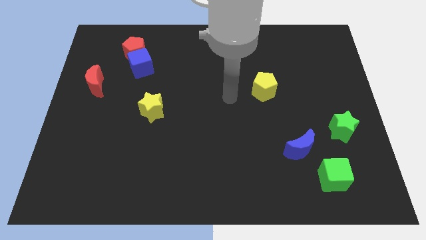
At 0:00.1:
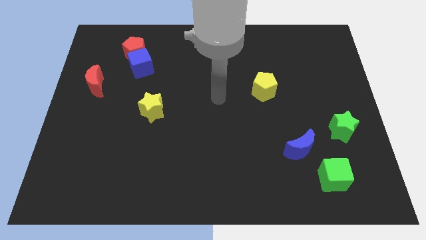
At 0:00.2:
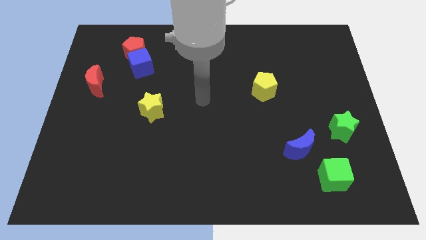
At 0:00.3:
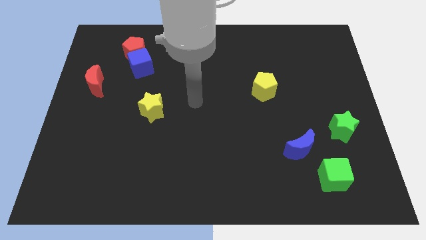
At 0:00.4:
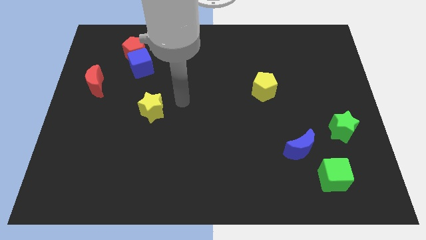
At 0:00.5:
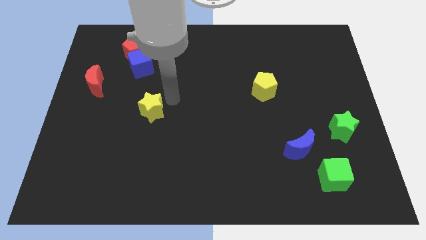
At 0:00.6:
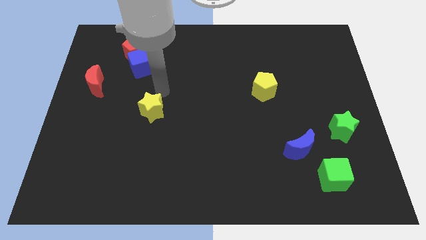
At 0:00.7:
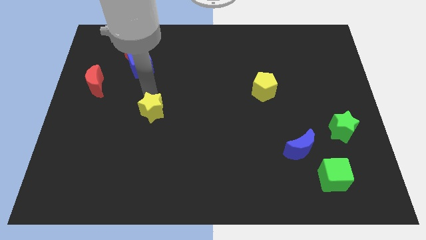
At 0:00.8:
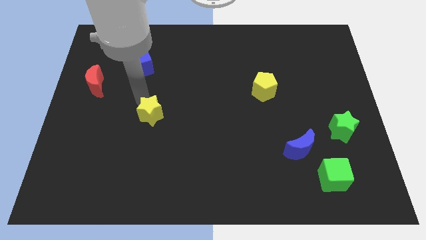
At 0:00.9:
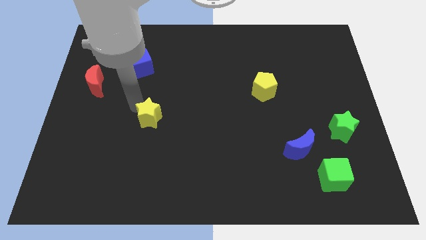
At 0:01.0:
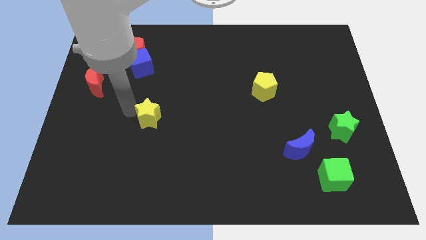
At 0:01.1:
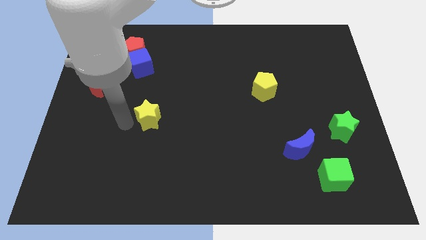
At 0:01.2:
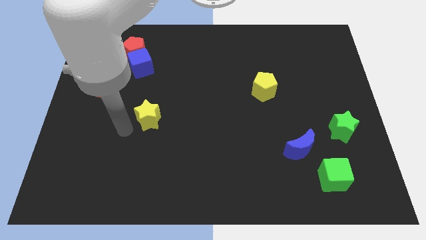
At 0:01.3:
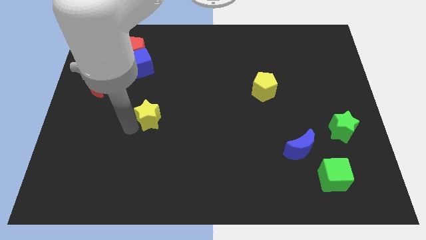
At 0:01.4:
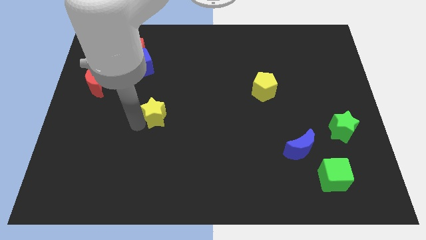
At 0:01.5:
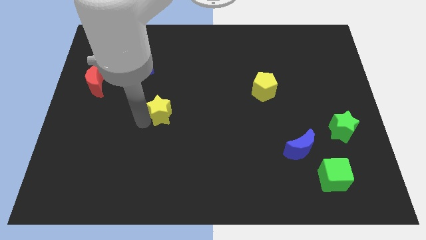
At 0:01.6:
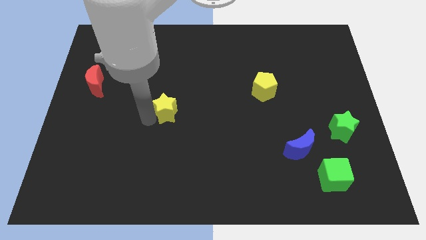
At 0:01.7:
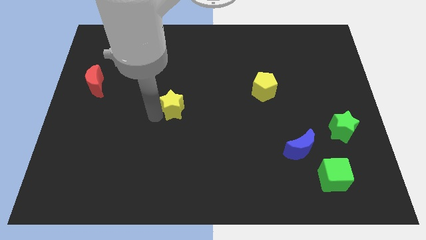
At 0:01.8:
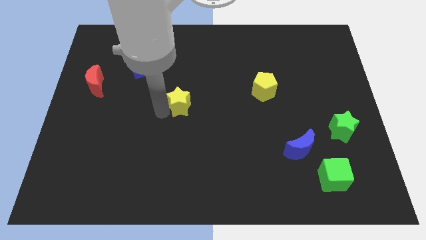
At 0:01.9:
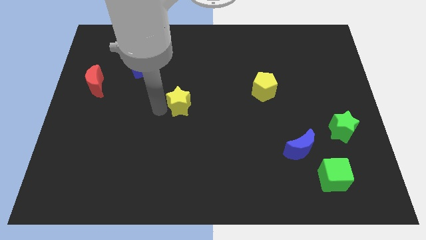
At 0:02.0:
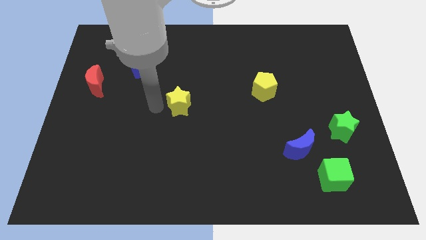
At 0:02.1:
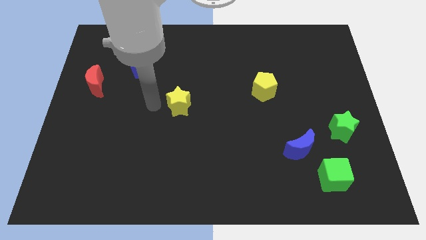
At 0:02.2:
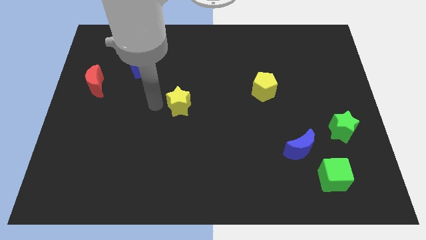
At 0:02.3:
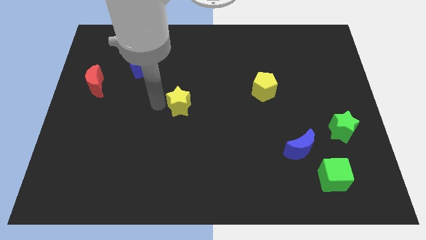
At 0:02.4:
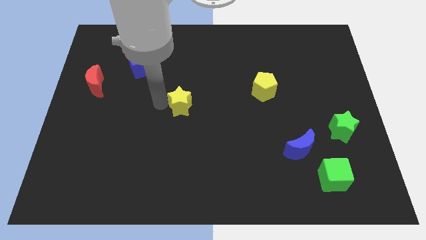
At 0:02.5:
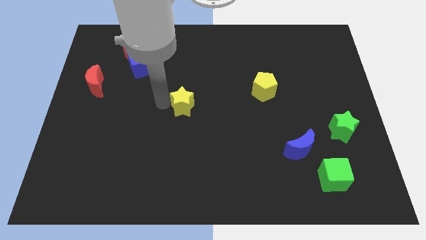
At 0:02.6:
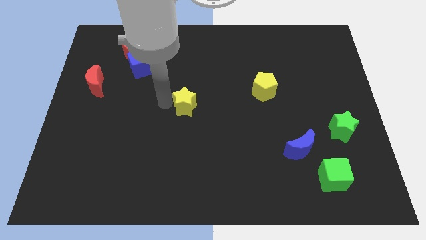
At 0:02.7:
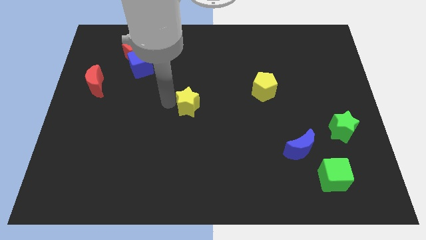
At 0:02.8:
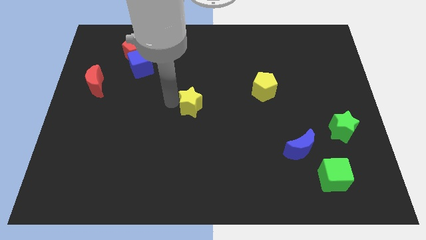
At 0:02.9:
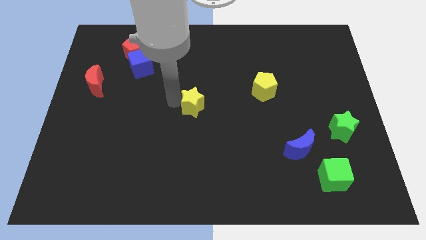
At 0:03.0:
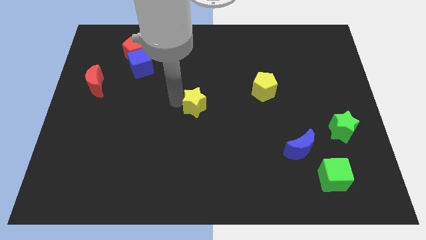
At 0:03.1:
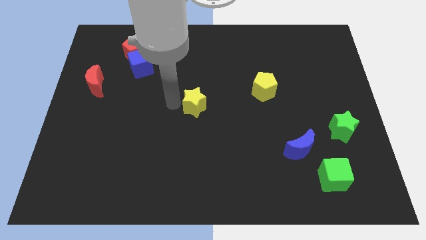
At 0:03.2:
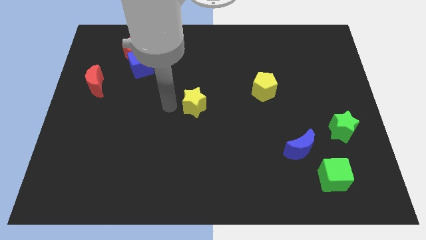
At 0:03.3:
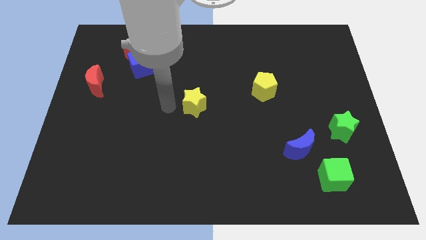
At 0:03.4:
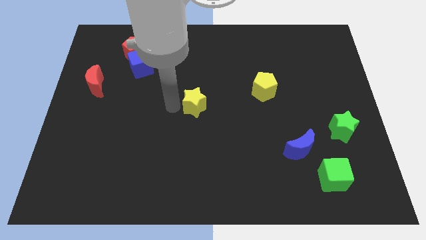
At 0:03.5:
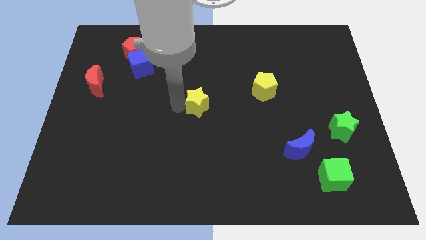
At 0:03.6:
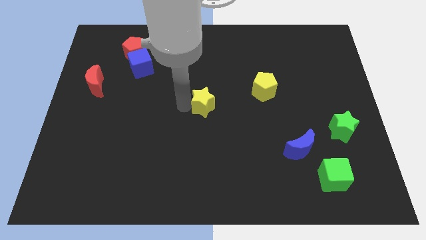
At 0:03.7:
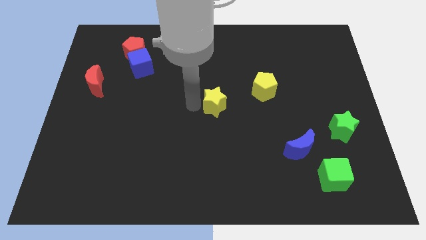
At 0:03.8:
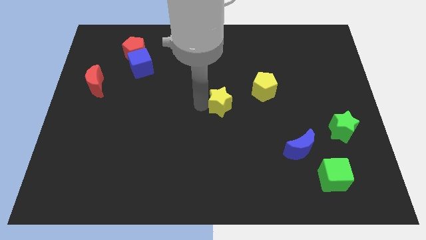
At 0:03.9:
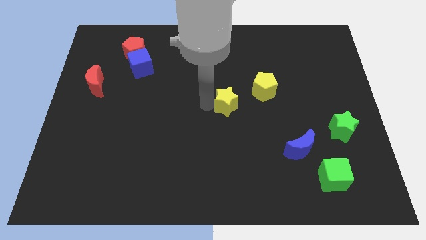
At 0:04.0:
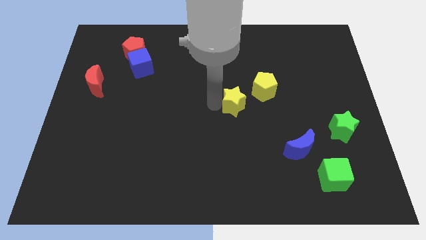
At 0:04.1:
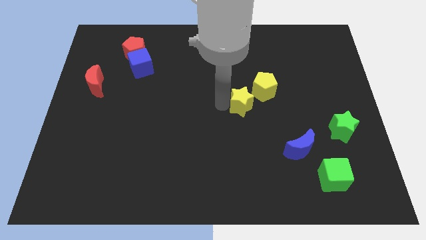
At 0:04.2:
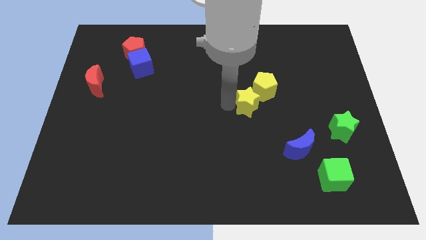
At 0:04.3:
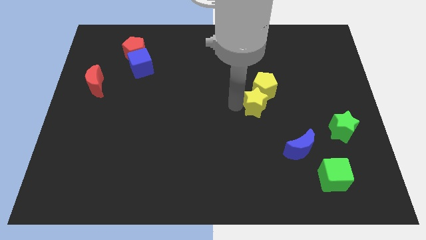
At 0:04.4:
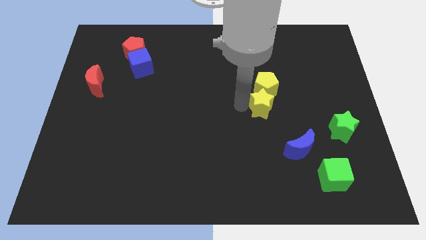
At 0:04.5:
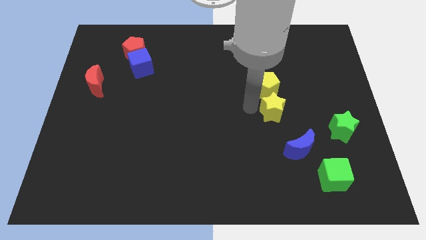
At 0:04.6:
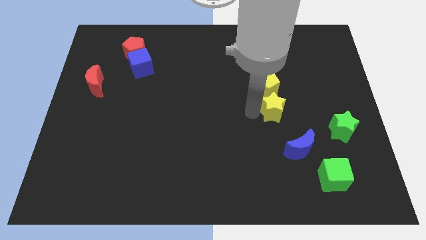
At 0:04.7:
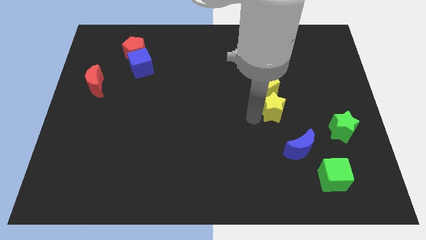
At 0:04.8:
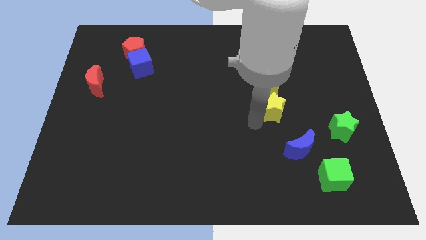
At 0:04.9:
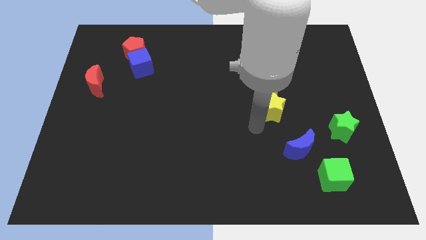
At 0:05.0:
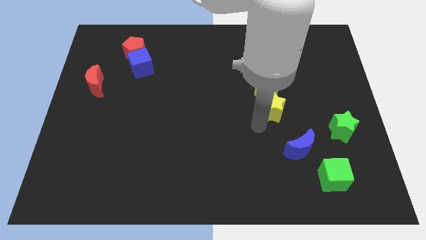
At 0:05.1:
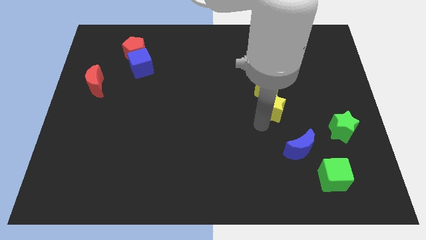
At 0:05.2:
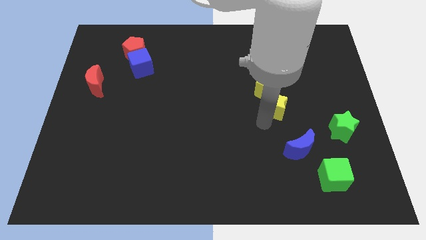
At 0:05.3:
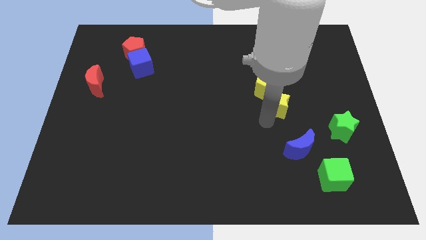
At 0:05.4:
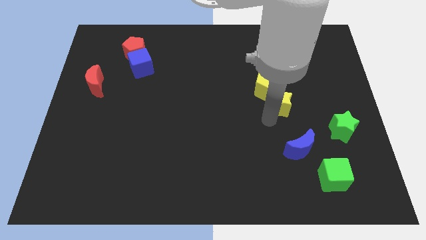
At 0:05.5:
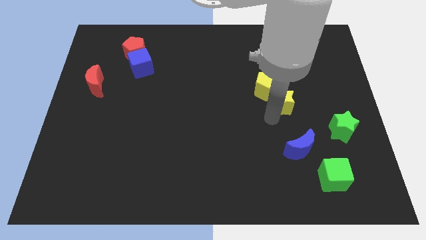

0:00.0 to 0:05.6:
slide the yellow star just right of the yellow pentagon

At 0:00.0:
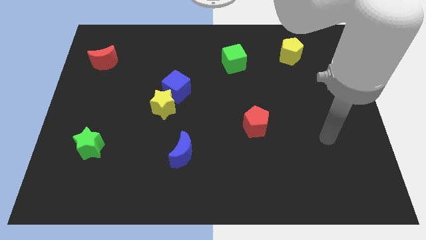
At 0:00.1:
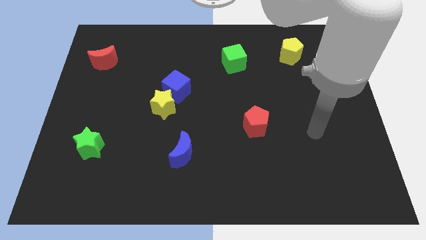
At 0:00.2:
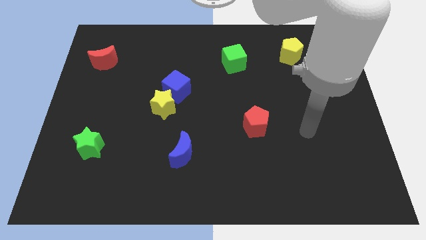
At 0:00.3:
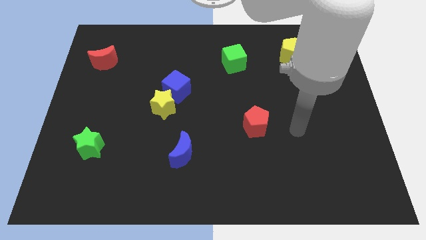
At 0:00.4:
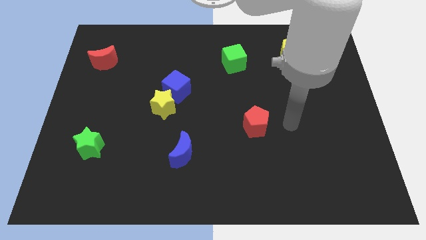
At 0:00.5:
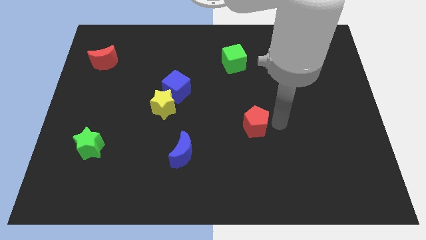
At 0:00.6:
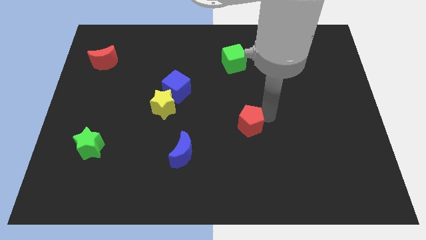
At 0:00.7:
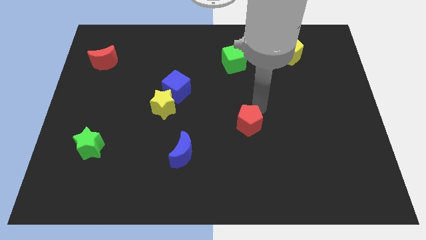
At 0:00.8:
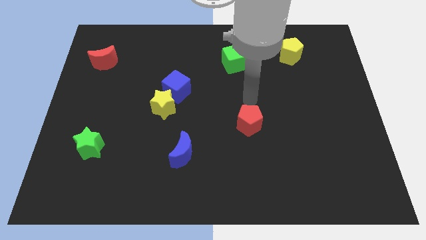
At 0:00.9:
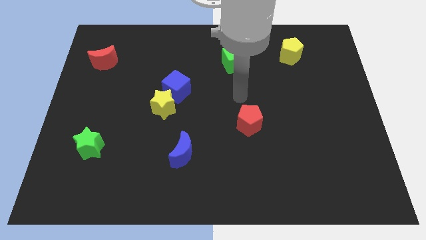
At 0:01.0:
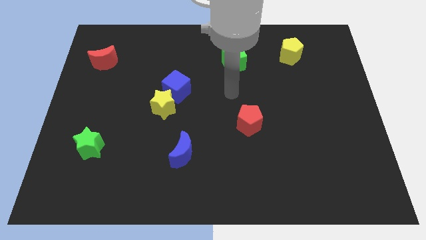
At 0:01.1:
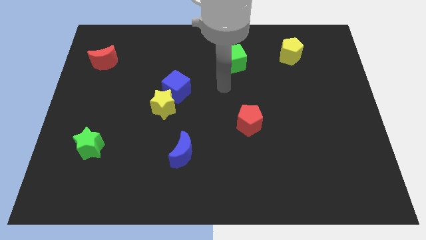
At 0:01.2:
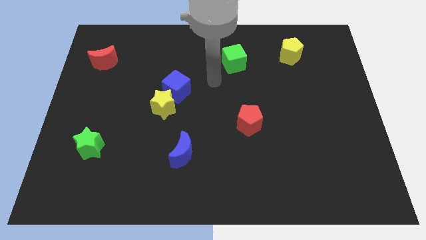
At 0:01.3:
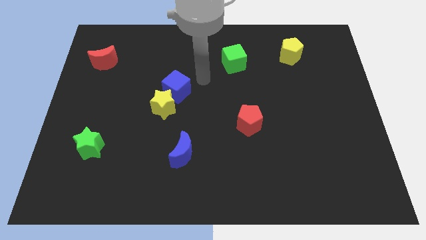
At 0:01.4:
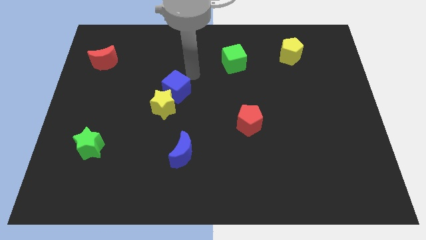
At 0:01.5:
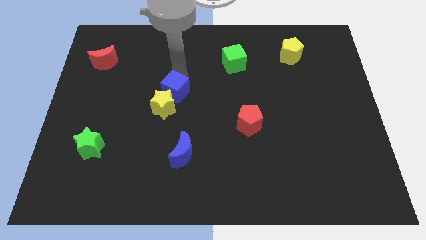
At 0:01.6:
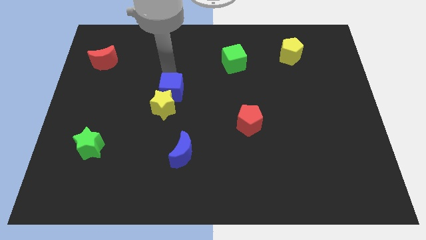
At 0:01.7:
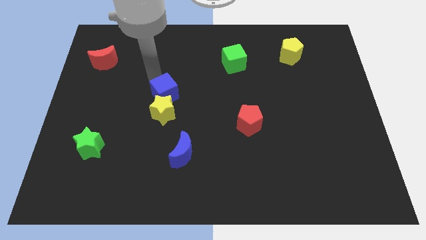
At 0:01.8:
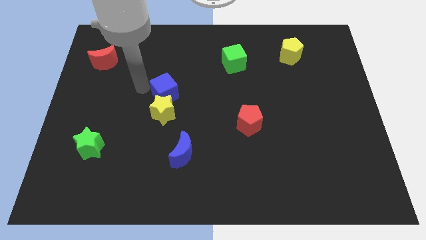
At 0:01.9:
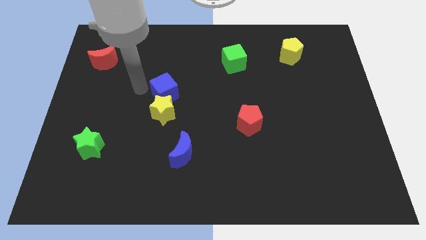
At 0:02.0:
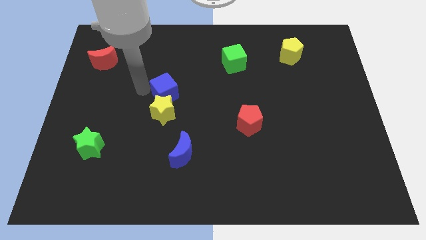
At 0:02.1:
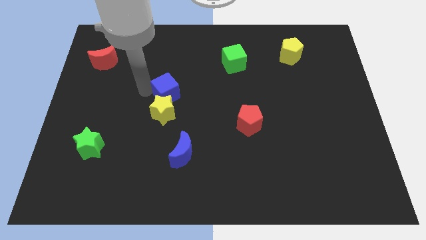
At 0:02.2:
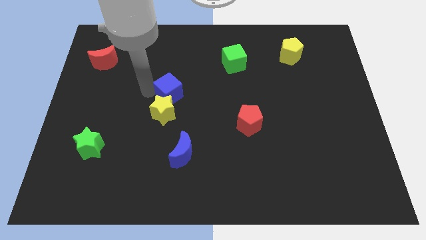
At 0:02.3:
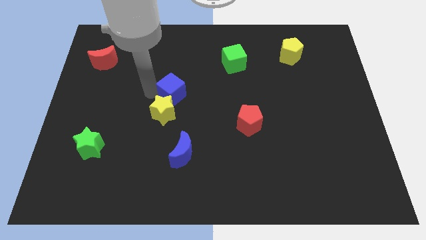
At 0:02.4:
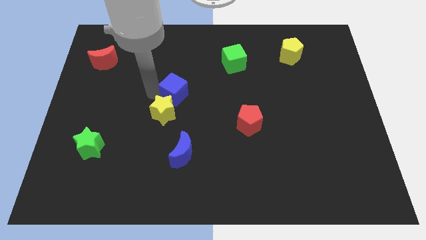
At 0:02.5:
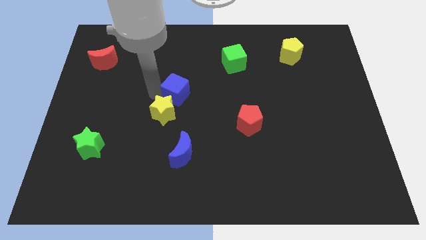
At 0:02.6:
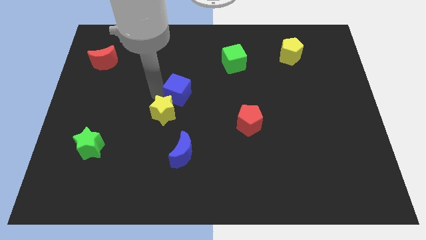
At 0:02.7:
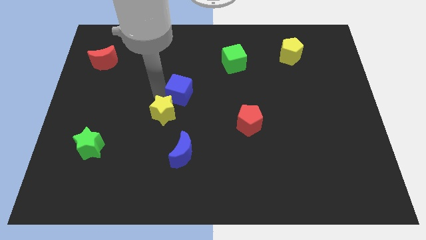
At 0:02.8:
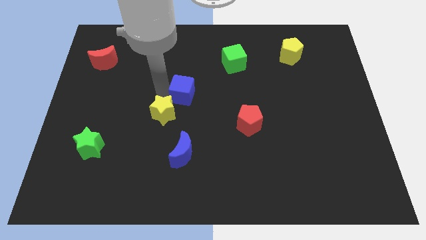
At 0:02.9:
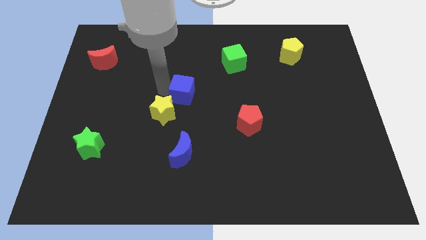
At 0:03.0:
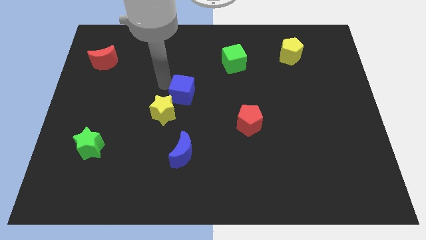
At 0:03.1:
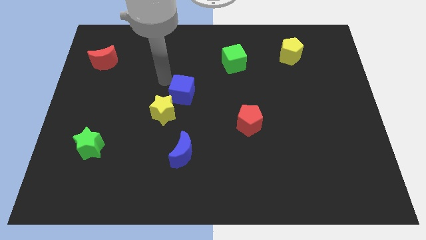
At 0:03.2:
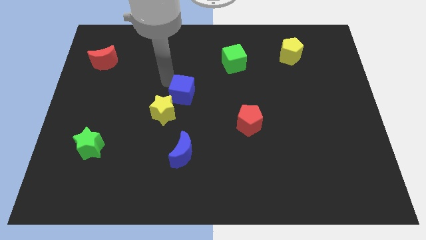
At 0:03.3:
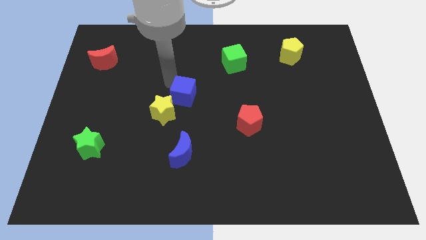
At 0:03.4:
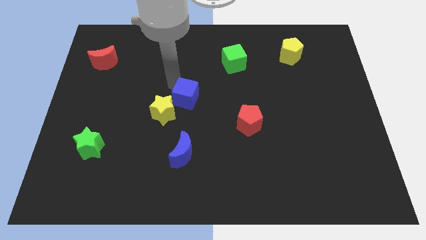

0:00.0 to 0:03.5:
slide the blue cube to the right side of the yellow star
